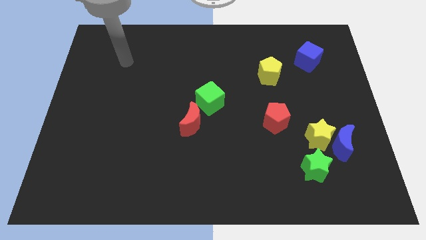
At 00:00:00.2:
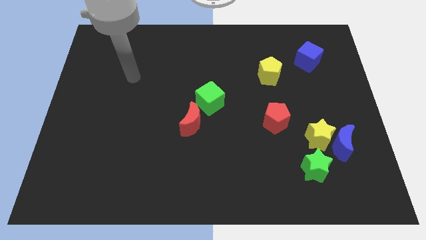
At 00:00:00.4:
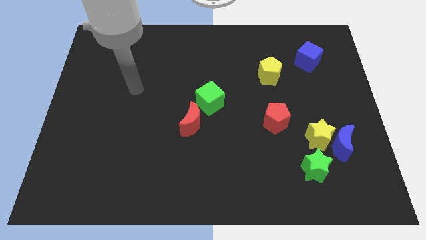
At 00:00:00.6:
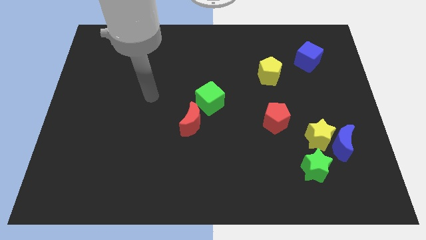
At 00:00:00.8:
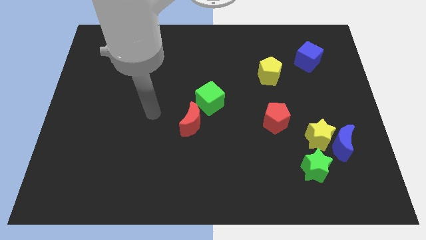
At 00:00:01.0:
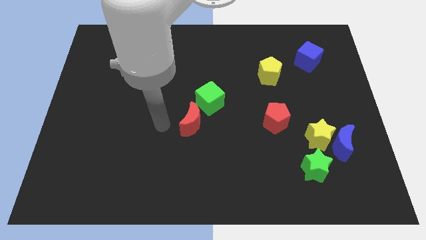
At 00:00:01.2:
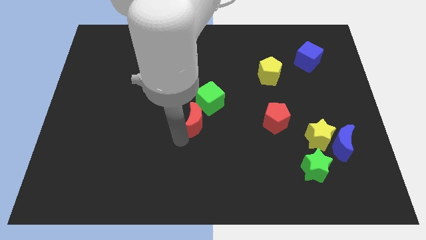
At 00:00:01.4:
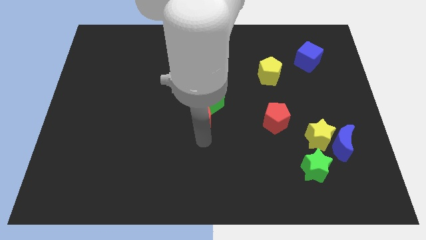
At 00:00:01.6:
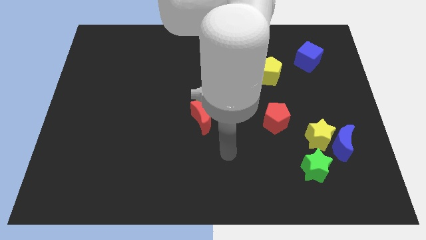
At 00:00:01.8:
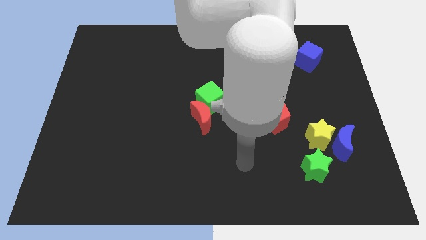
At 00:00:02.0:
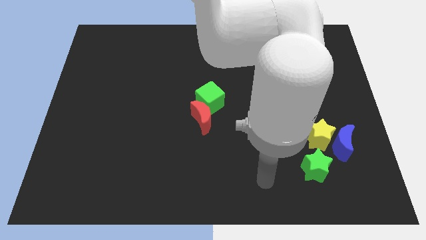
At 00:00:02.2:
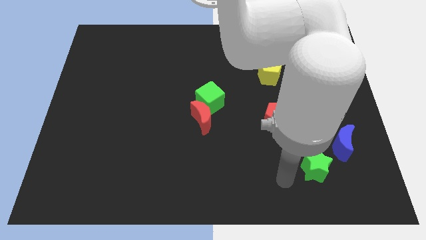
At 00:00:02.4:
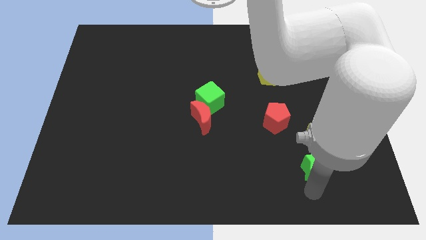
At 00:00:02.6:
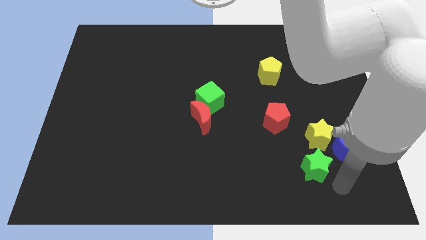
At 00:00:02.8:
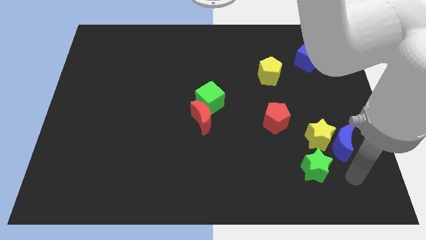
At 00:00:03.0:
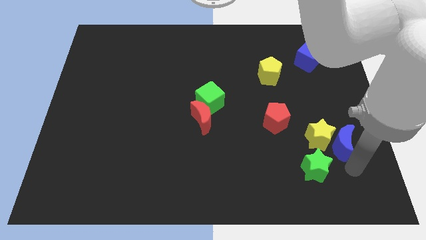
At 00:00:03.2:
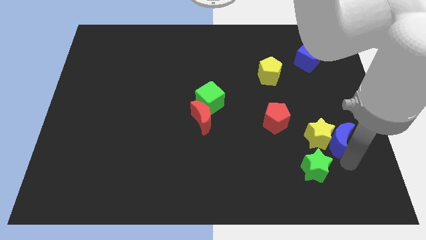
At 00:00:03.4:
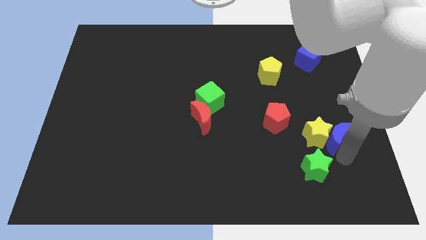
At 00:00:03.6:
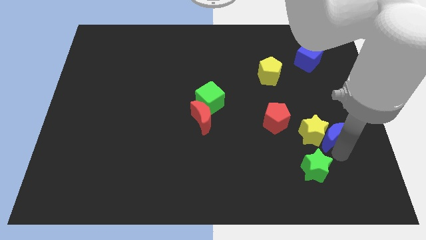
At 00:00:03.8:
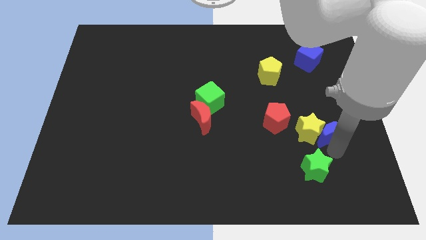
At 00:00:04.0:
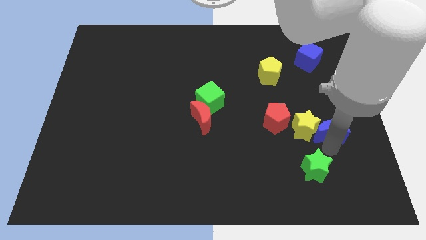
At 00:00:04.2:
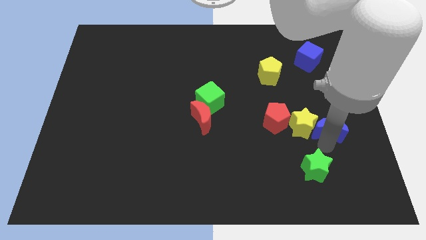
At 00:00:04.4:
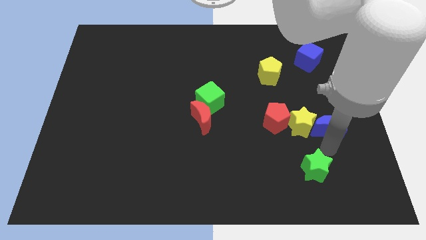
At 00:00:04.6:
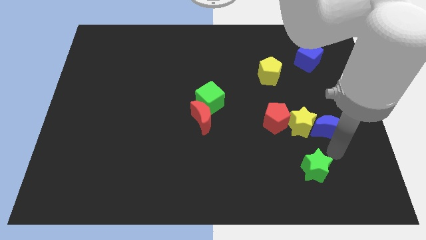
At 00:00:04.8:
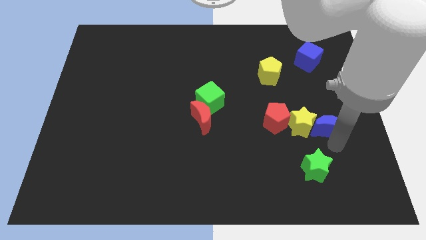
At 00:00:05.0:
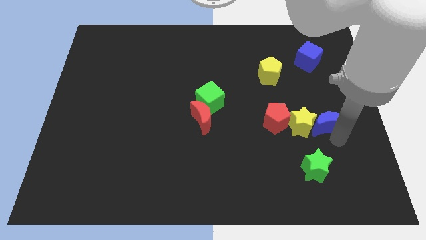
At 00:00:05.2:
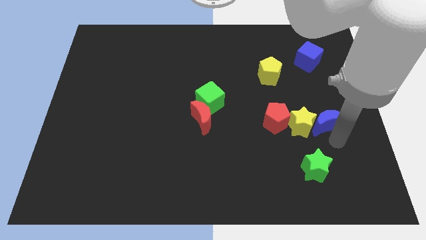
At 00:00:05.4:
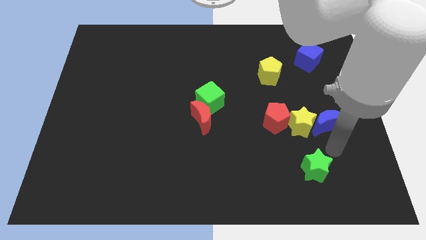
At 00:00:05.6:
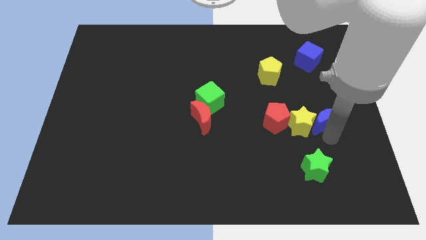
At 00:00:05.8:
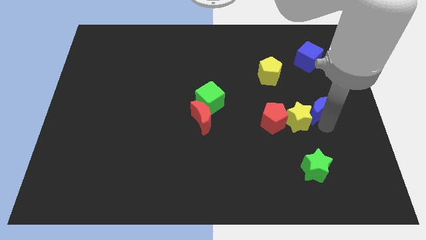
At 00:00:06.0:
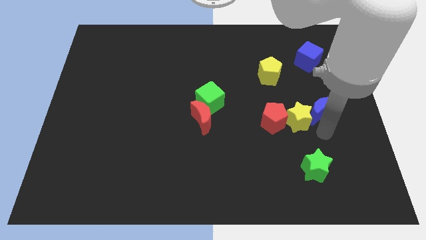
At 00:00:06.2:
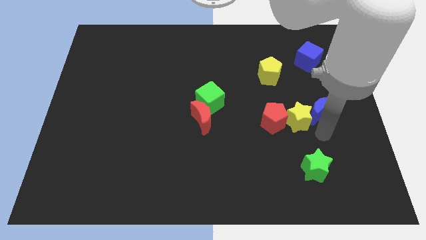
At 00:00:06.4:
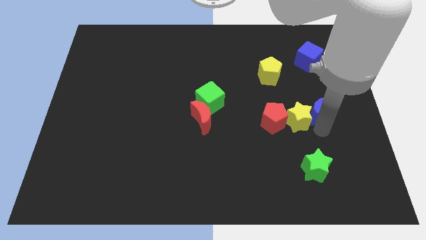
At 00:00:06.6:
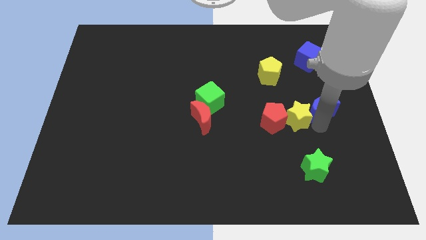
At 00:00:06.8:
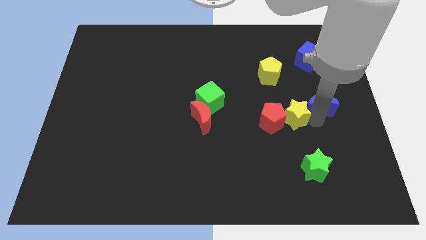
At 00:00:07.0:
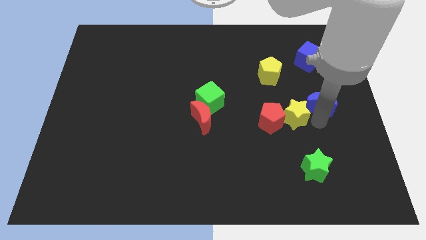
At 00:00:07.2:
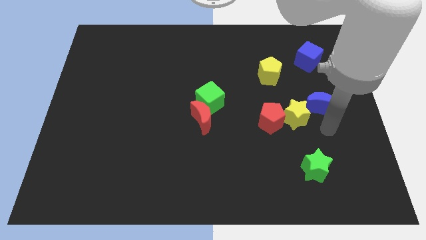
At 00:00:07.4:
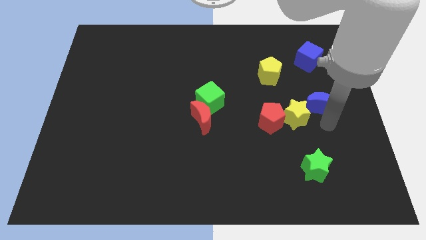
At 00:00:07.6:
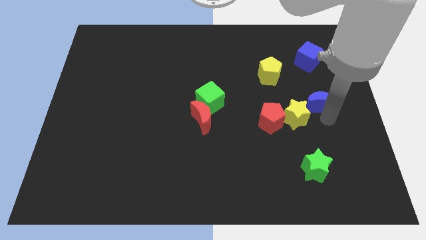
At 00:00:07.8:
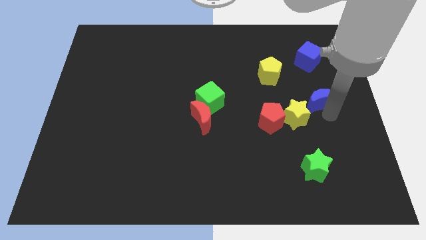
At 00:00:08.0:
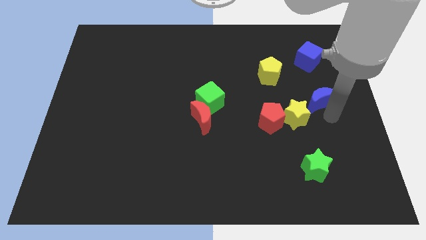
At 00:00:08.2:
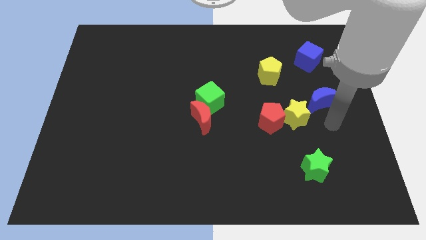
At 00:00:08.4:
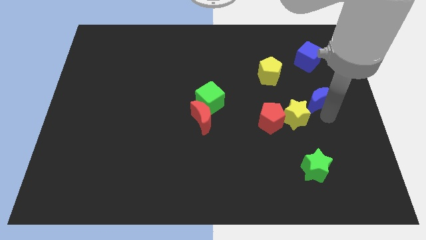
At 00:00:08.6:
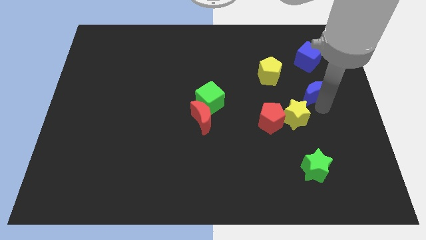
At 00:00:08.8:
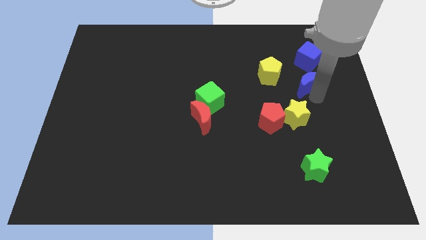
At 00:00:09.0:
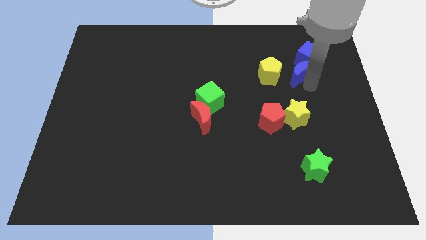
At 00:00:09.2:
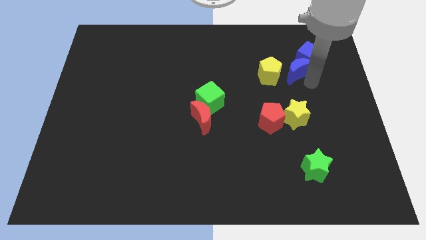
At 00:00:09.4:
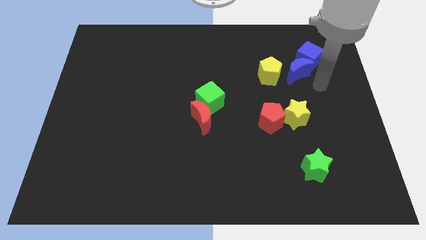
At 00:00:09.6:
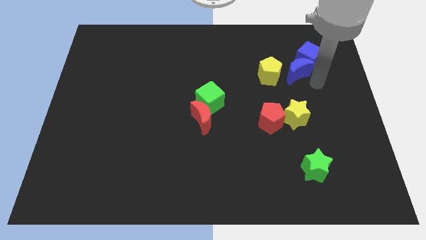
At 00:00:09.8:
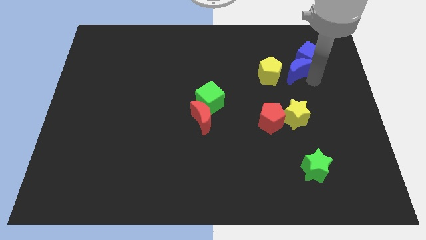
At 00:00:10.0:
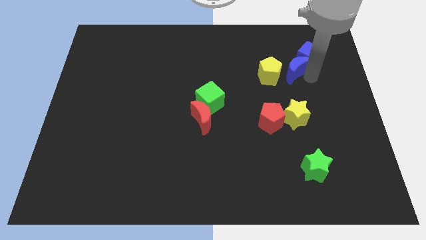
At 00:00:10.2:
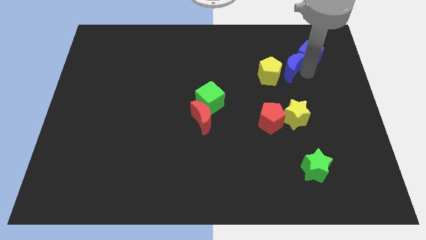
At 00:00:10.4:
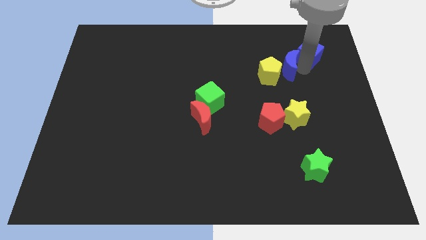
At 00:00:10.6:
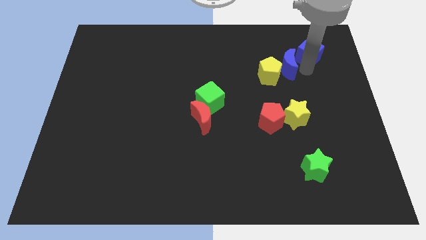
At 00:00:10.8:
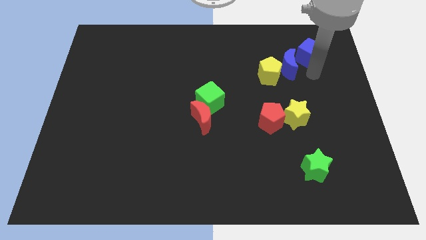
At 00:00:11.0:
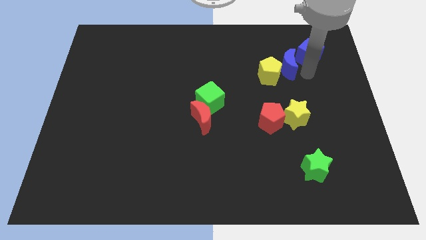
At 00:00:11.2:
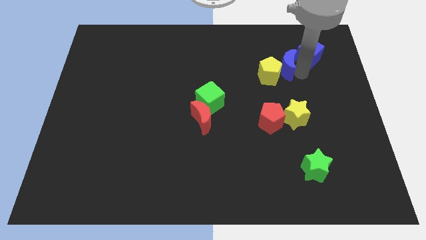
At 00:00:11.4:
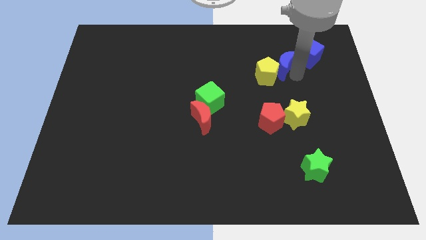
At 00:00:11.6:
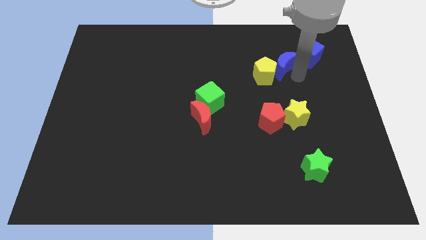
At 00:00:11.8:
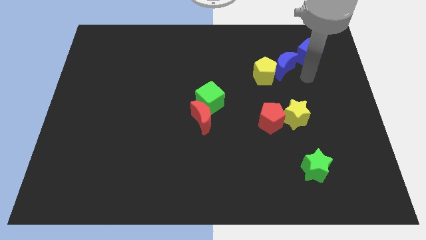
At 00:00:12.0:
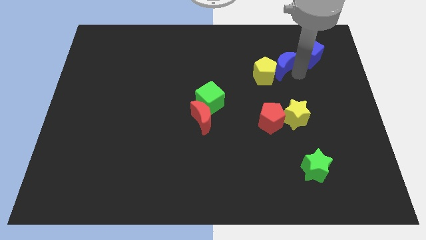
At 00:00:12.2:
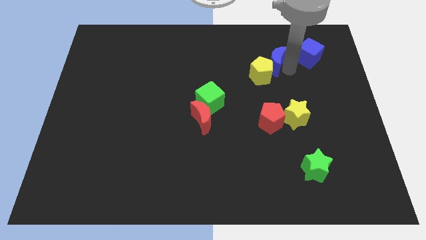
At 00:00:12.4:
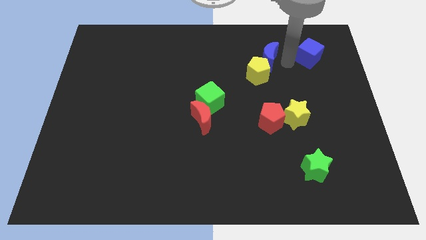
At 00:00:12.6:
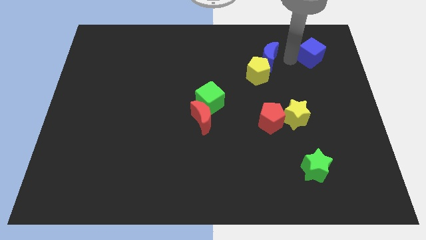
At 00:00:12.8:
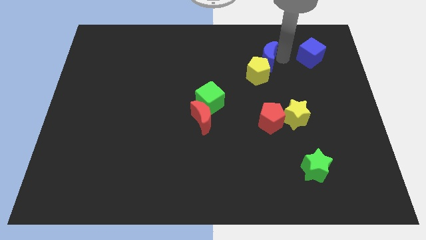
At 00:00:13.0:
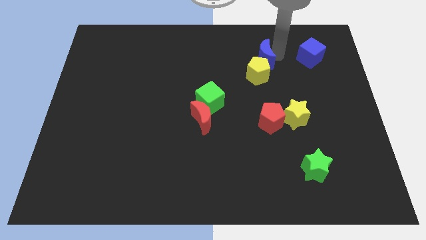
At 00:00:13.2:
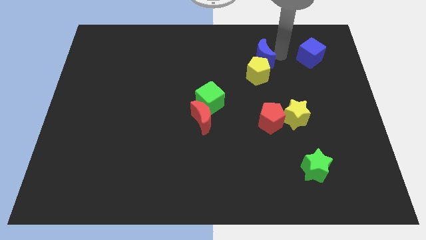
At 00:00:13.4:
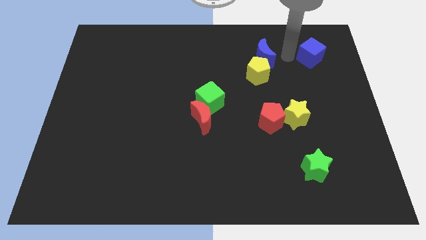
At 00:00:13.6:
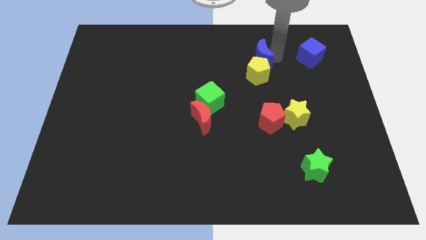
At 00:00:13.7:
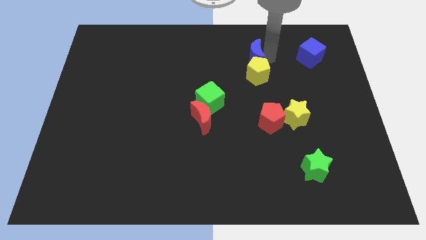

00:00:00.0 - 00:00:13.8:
slide the blue moon to the top left side of the yellow pentagon
